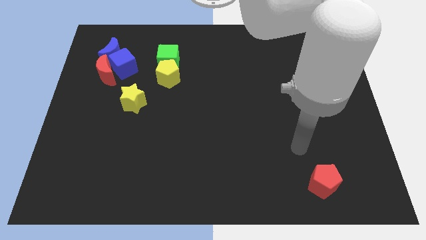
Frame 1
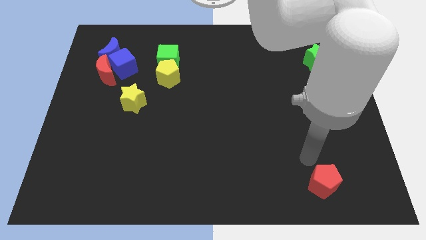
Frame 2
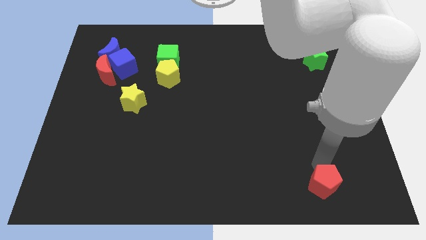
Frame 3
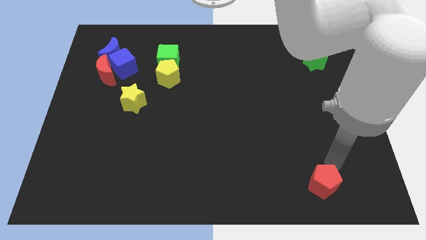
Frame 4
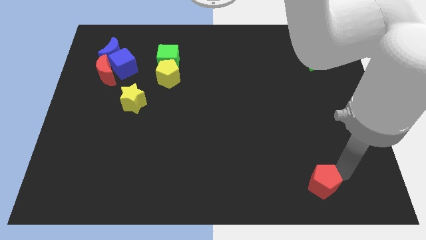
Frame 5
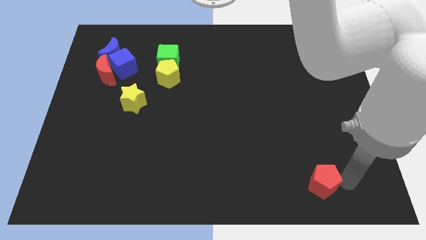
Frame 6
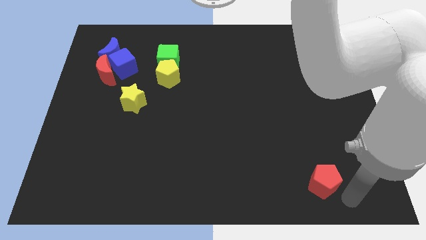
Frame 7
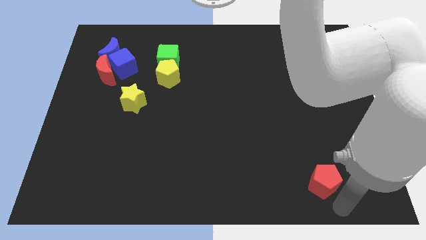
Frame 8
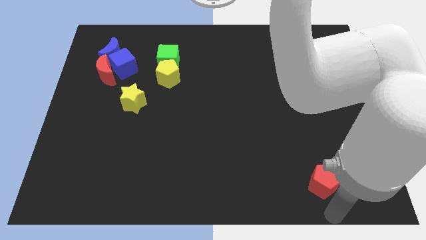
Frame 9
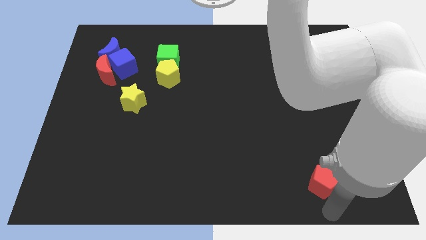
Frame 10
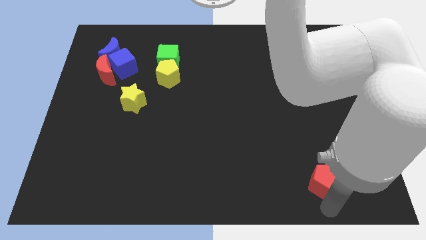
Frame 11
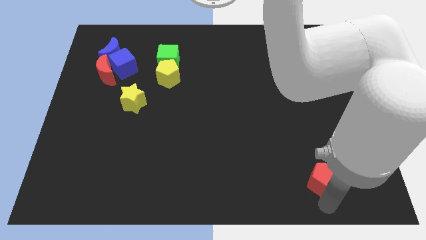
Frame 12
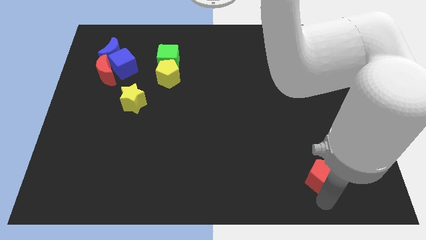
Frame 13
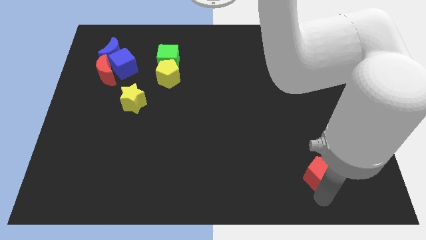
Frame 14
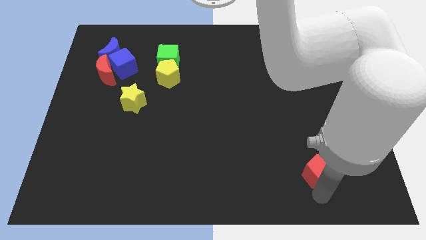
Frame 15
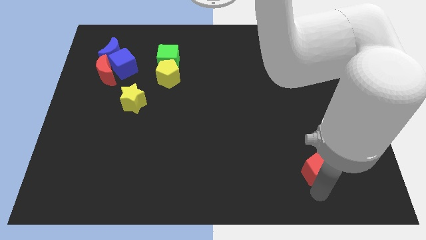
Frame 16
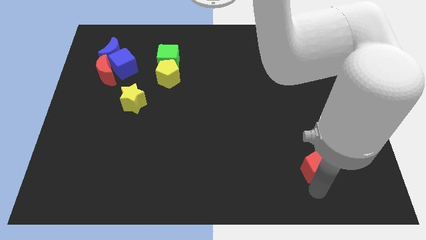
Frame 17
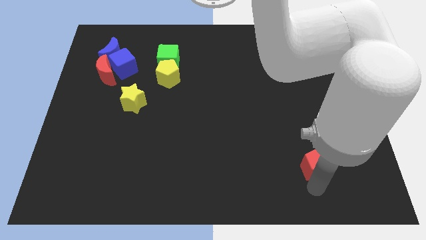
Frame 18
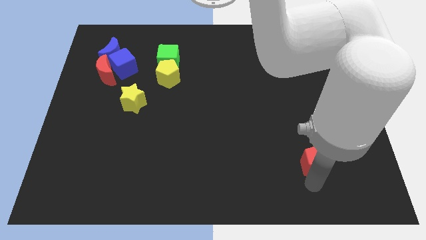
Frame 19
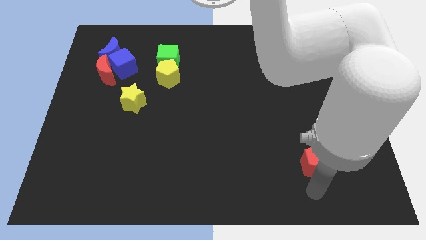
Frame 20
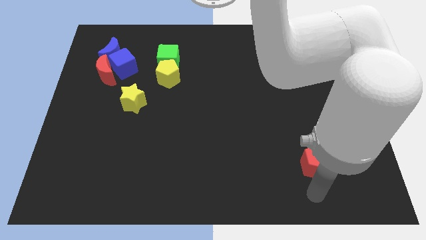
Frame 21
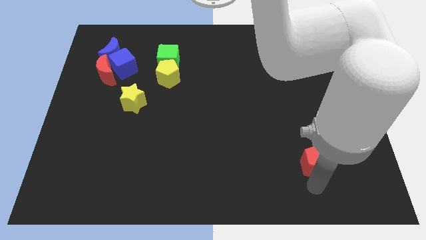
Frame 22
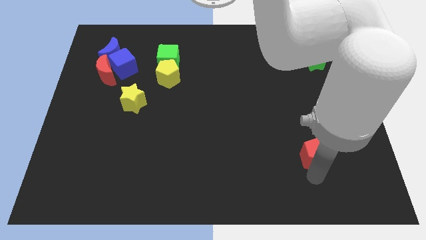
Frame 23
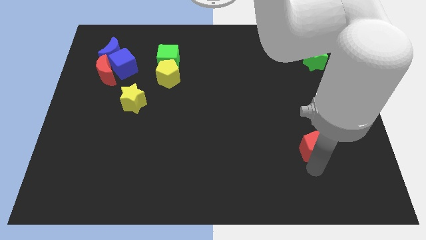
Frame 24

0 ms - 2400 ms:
move the red pentagon up a bit

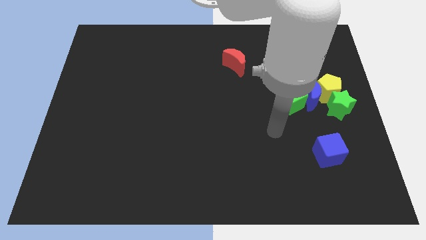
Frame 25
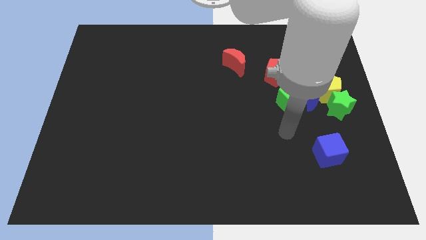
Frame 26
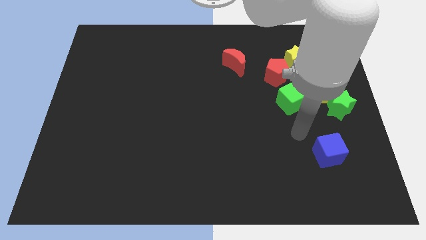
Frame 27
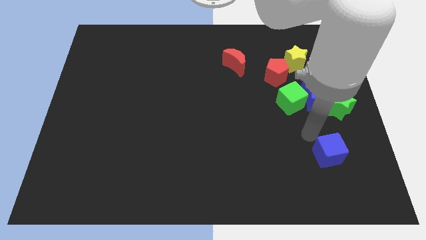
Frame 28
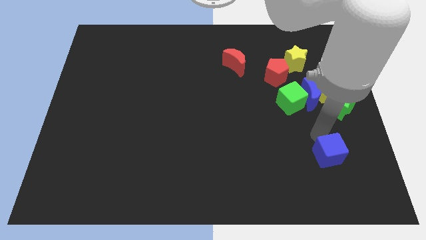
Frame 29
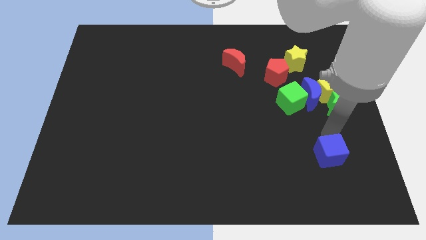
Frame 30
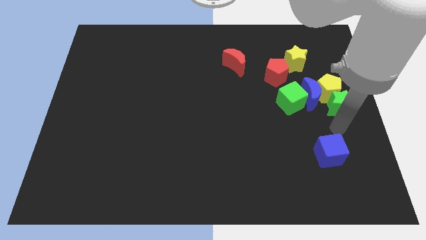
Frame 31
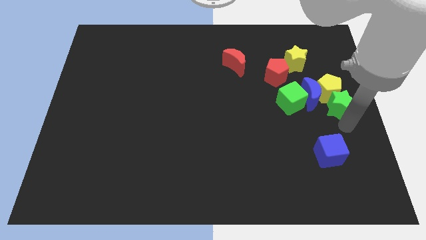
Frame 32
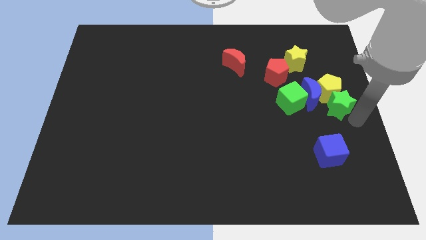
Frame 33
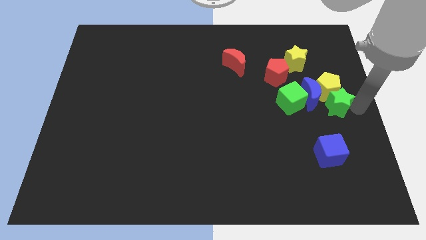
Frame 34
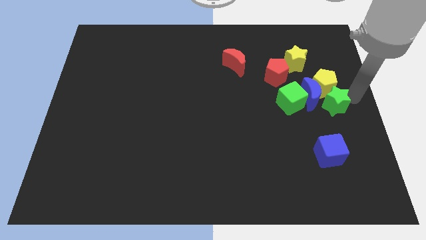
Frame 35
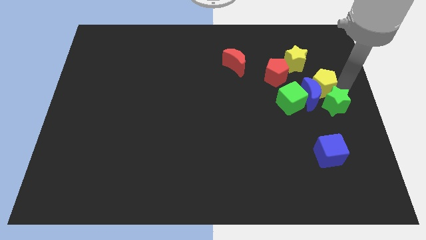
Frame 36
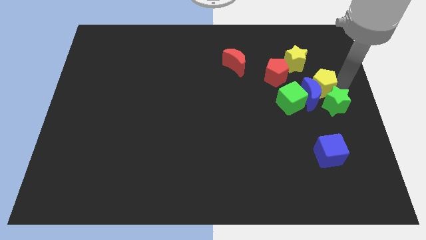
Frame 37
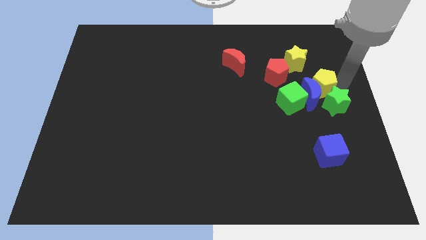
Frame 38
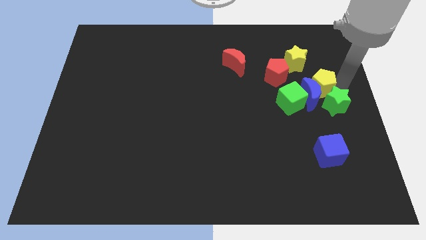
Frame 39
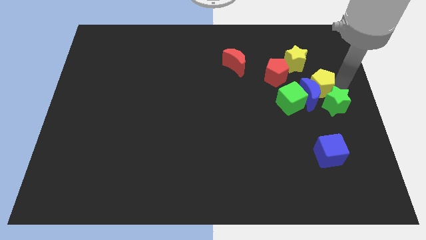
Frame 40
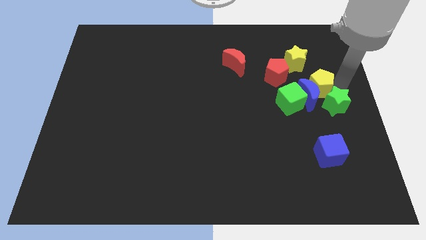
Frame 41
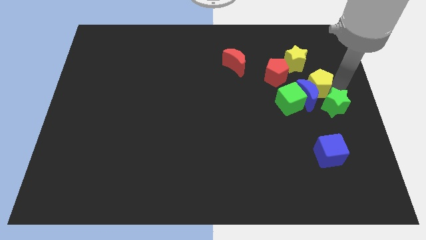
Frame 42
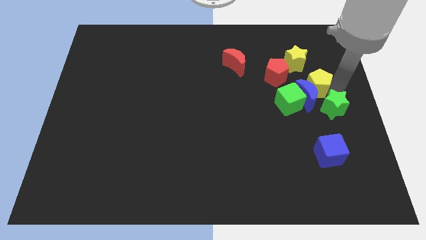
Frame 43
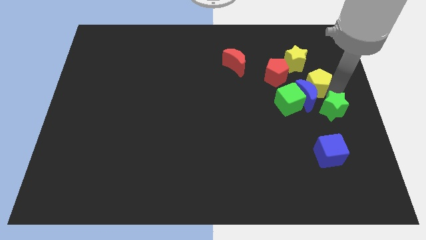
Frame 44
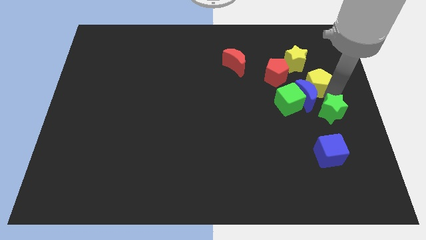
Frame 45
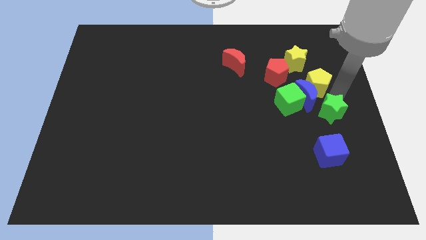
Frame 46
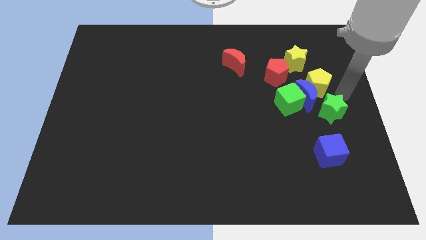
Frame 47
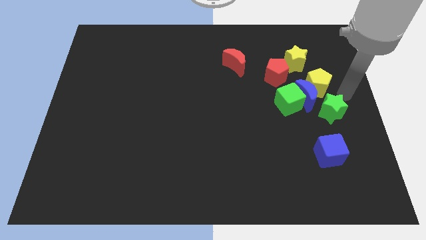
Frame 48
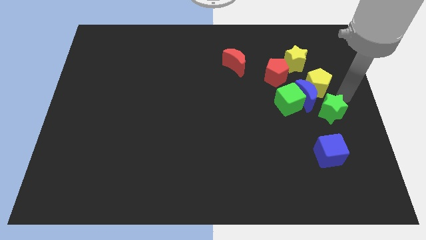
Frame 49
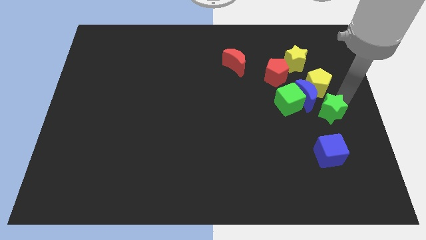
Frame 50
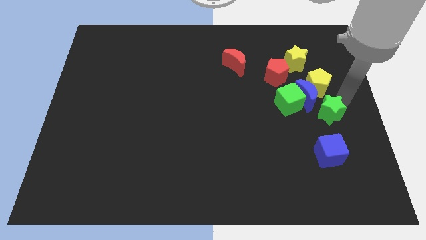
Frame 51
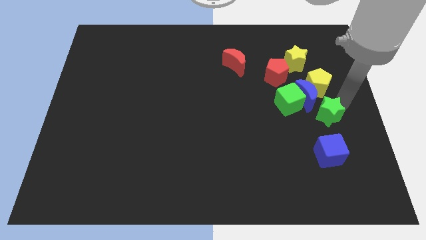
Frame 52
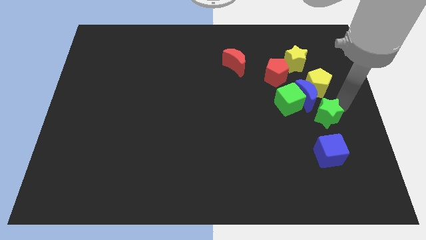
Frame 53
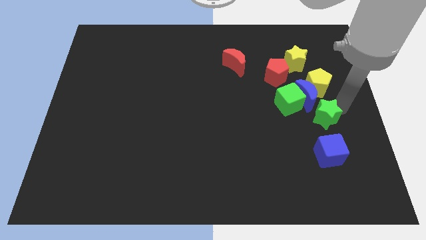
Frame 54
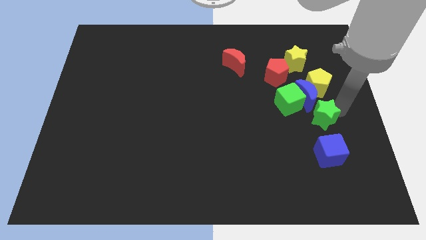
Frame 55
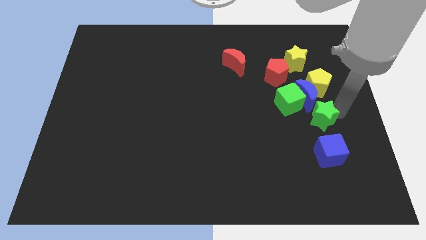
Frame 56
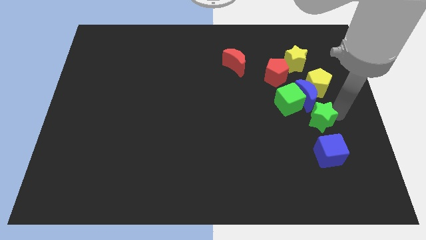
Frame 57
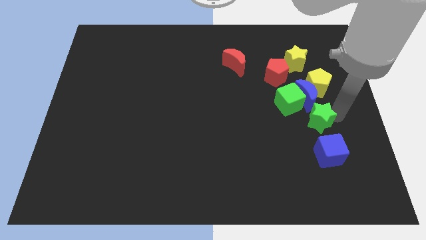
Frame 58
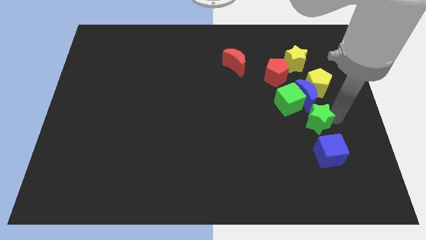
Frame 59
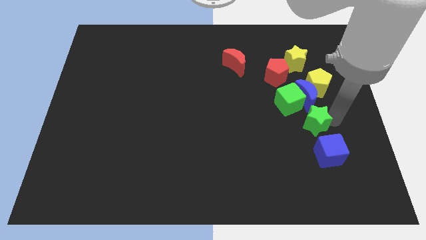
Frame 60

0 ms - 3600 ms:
push the green star a little bit down and left diagonally

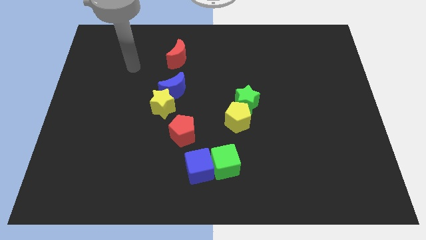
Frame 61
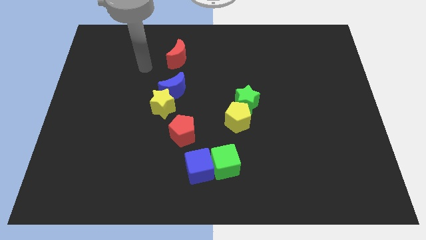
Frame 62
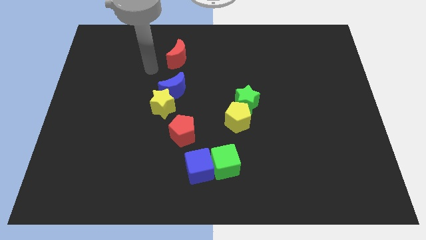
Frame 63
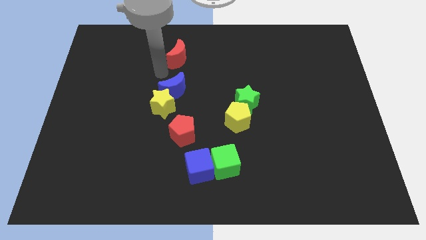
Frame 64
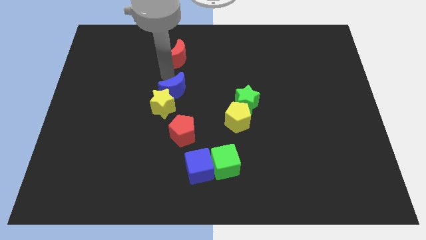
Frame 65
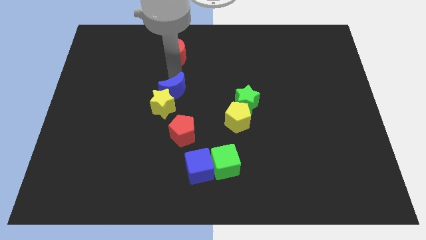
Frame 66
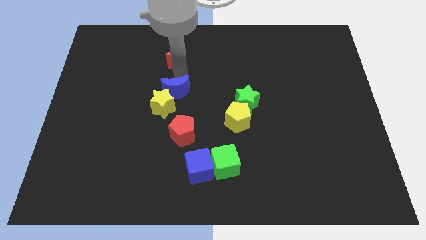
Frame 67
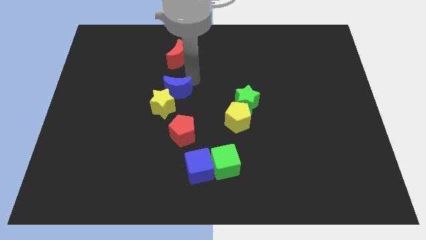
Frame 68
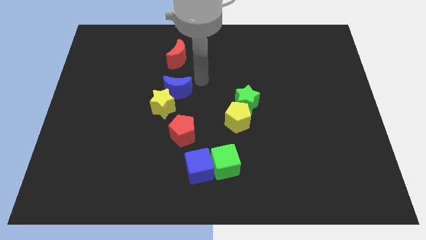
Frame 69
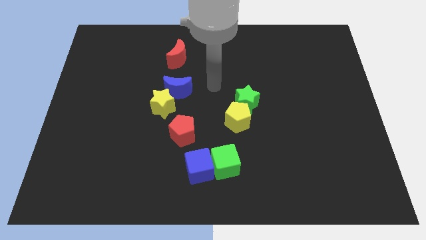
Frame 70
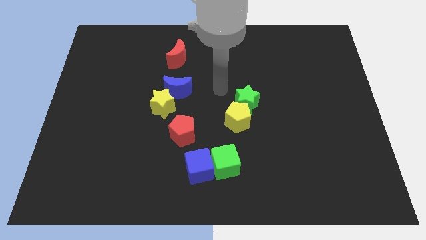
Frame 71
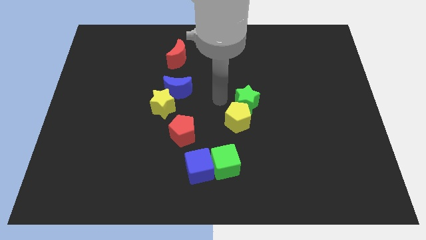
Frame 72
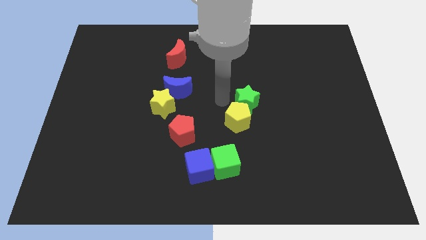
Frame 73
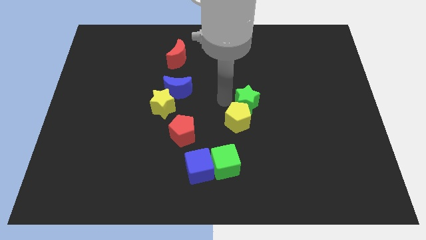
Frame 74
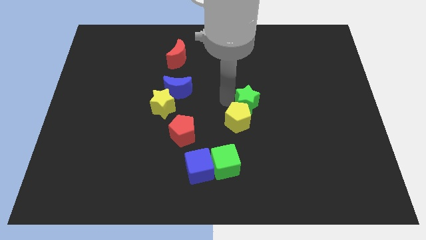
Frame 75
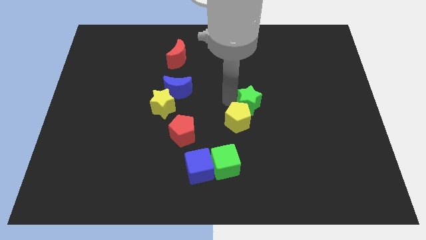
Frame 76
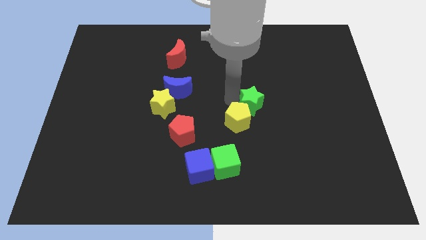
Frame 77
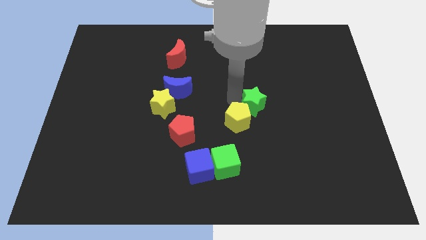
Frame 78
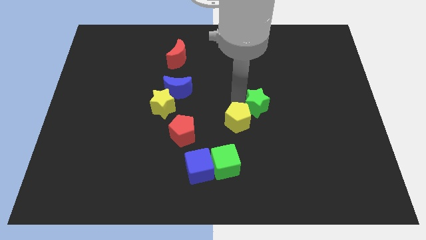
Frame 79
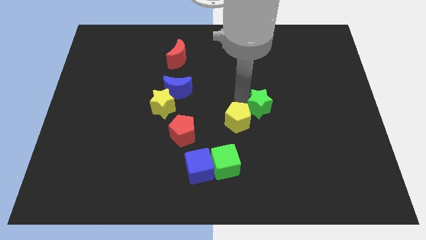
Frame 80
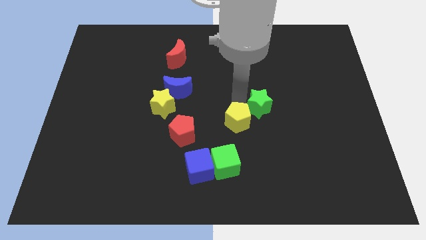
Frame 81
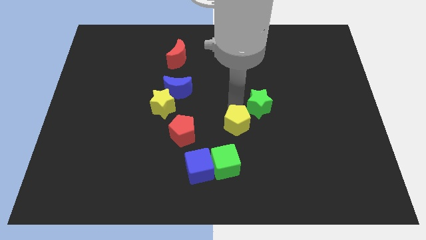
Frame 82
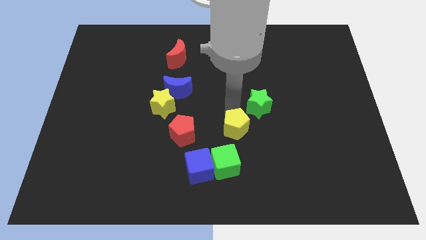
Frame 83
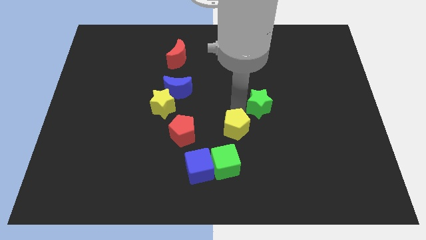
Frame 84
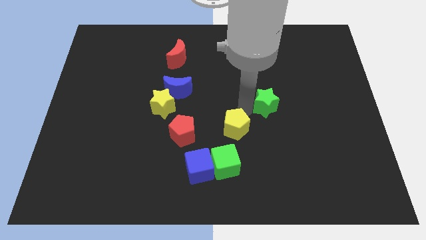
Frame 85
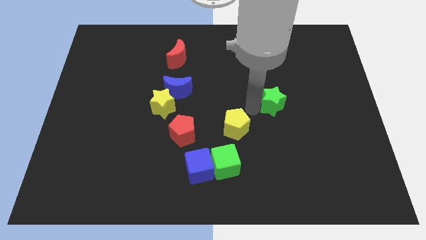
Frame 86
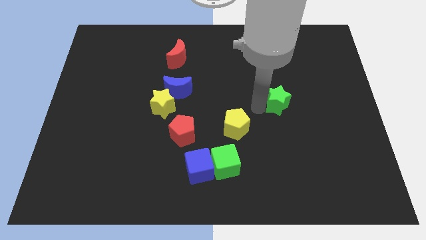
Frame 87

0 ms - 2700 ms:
push the green star slightly right
